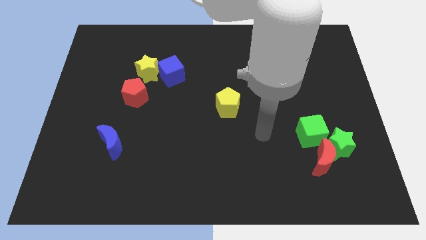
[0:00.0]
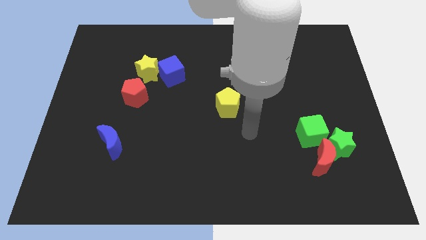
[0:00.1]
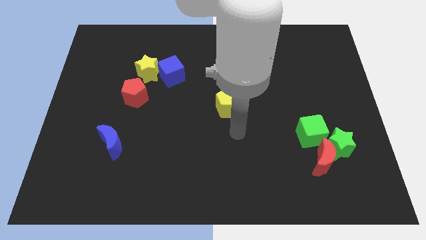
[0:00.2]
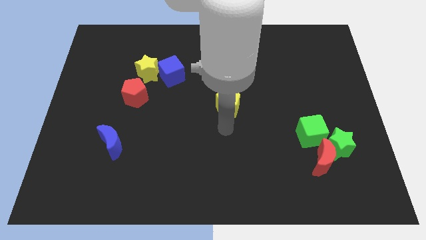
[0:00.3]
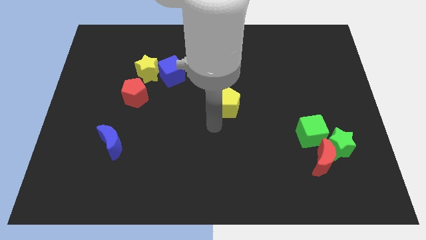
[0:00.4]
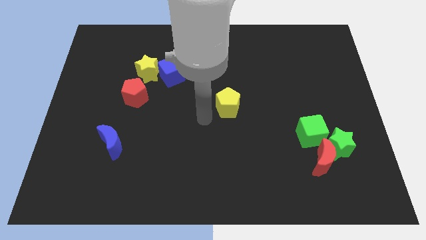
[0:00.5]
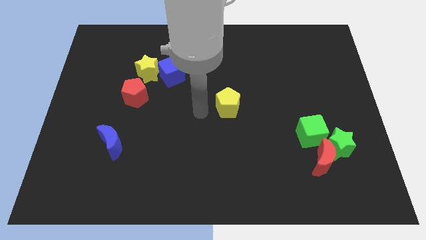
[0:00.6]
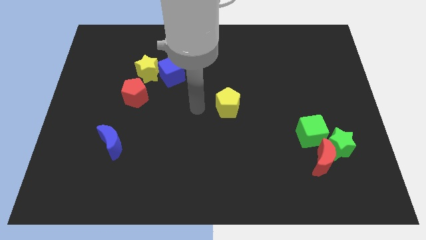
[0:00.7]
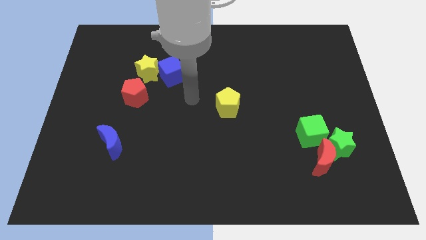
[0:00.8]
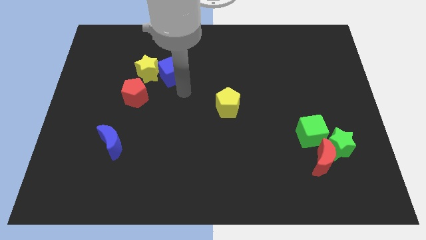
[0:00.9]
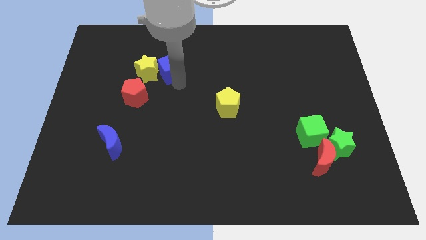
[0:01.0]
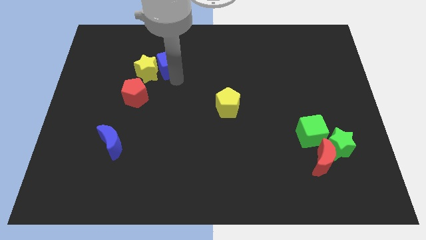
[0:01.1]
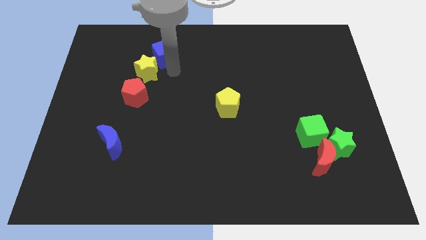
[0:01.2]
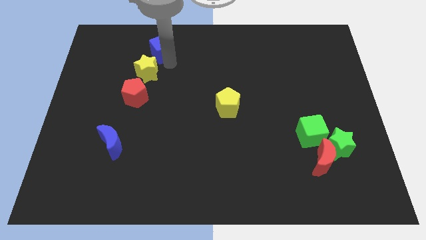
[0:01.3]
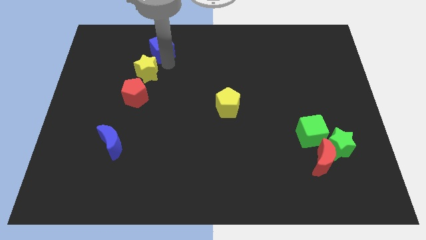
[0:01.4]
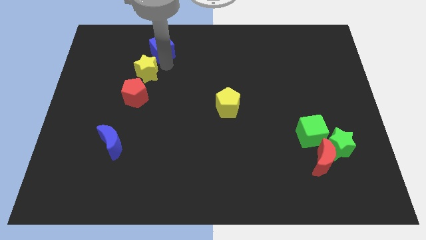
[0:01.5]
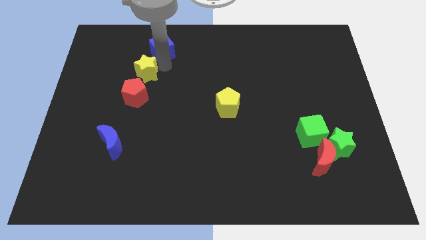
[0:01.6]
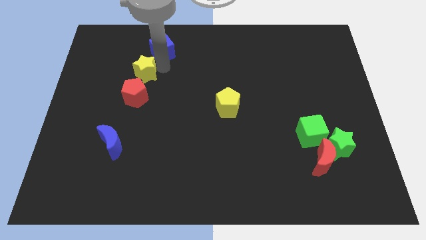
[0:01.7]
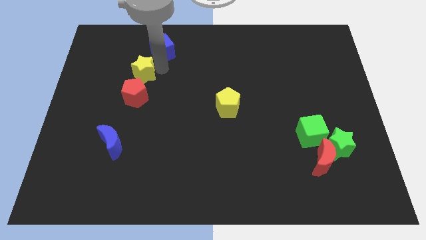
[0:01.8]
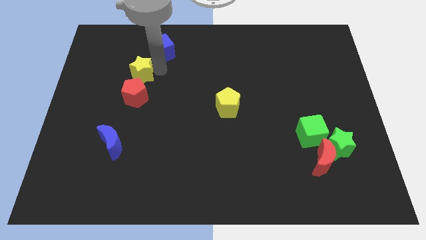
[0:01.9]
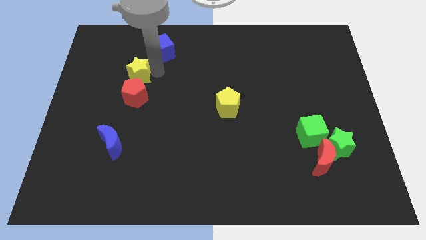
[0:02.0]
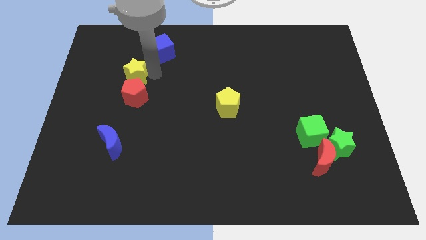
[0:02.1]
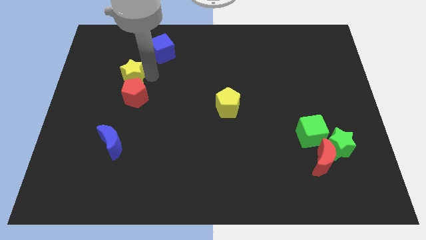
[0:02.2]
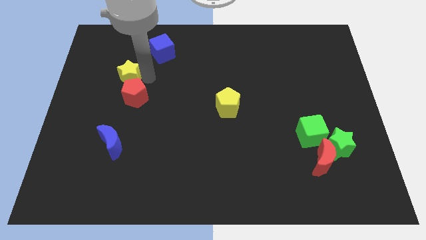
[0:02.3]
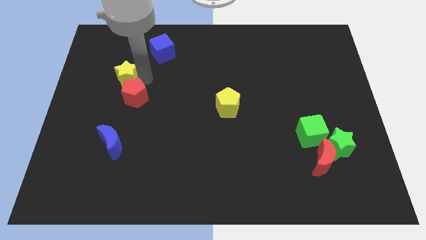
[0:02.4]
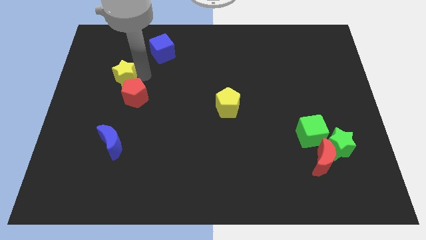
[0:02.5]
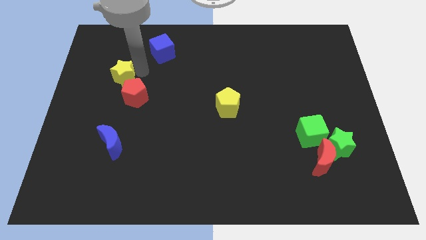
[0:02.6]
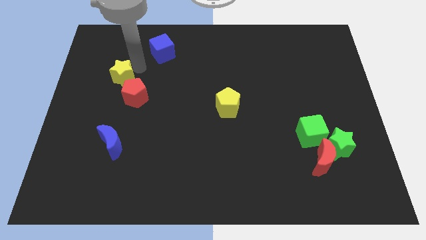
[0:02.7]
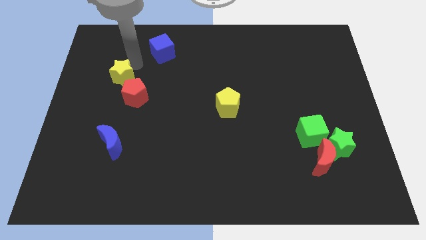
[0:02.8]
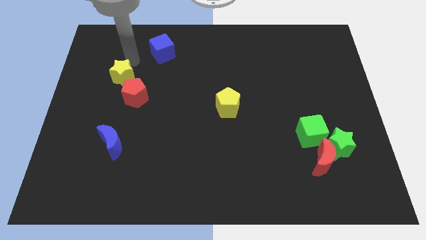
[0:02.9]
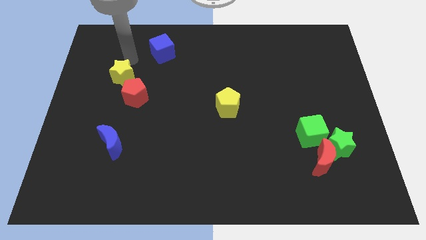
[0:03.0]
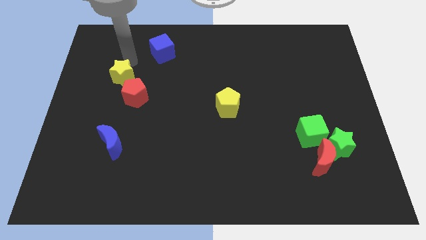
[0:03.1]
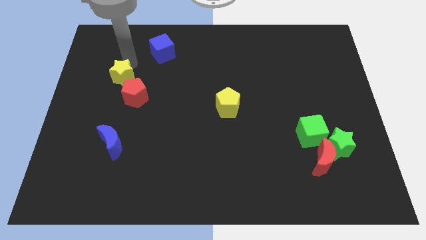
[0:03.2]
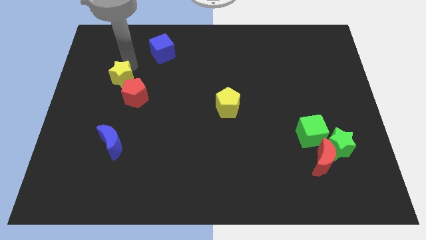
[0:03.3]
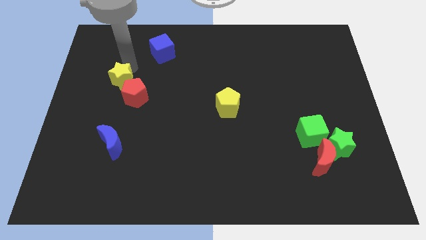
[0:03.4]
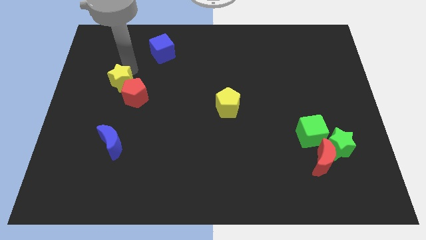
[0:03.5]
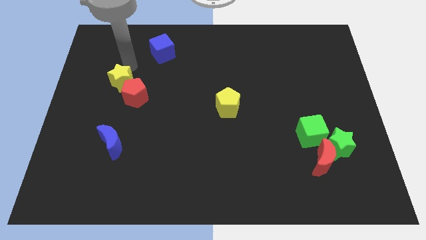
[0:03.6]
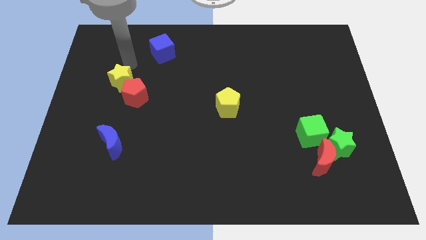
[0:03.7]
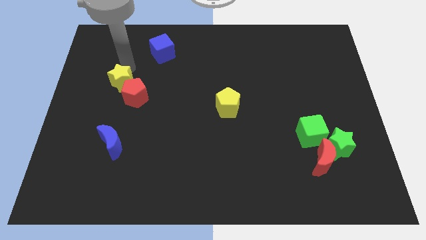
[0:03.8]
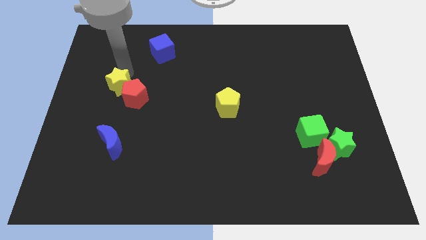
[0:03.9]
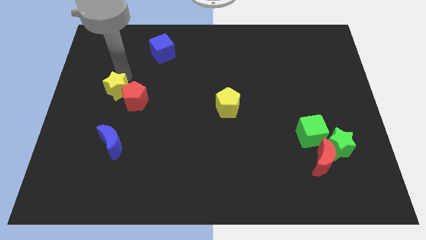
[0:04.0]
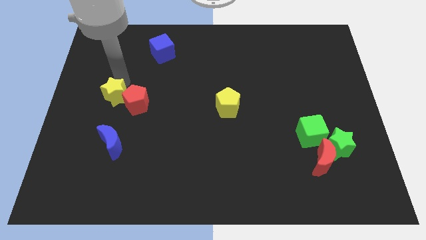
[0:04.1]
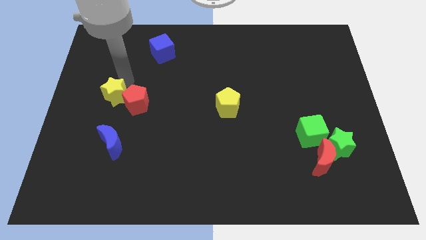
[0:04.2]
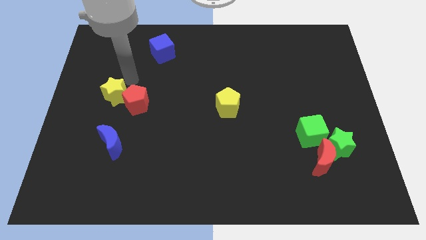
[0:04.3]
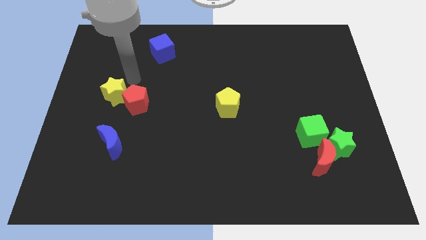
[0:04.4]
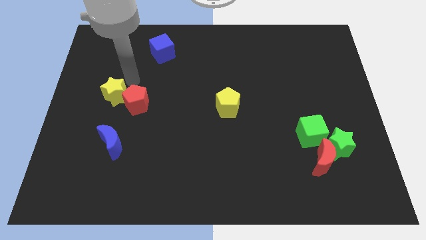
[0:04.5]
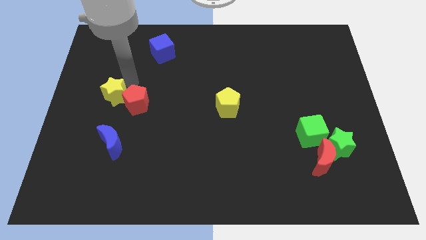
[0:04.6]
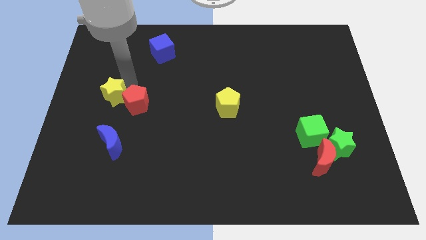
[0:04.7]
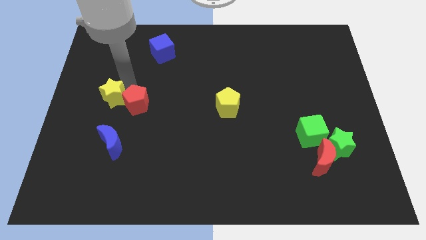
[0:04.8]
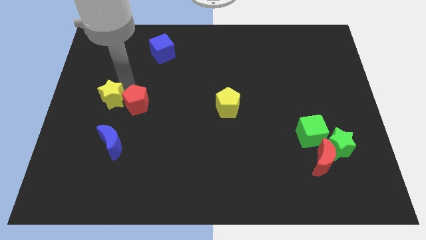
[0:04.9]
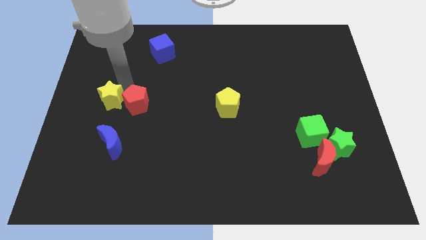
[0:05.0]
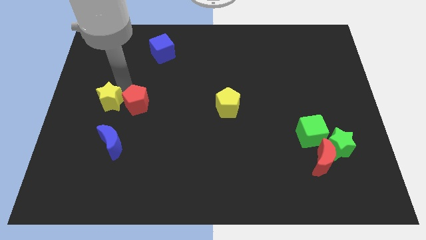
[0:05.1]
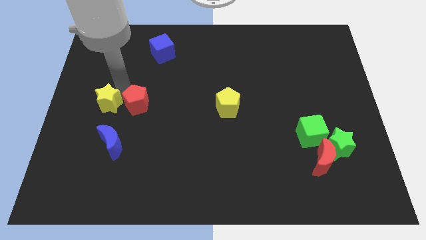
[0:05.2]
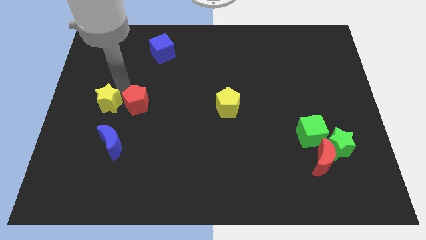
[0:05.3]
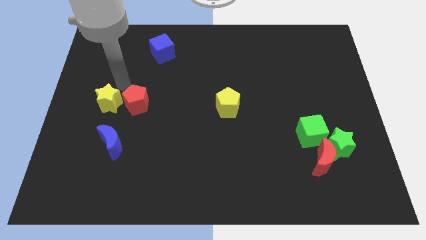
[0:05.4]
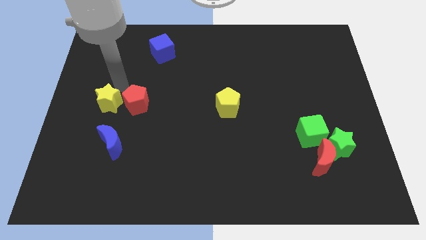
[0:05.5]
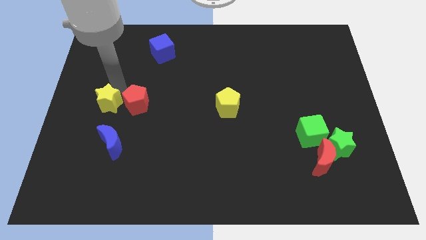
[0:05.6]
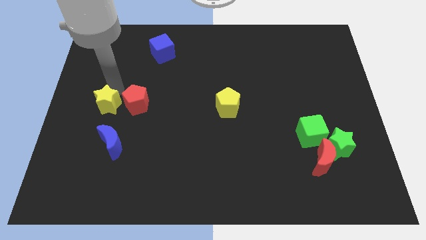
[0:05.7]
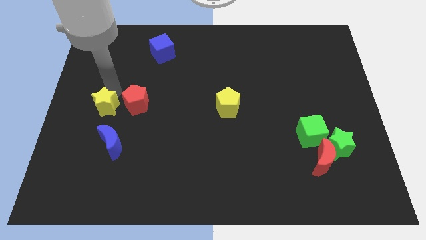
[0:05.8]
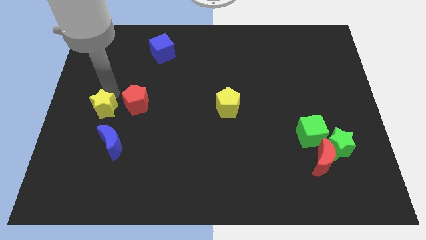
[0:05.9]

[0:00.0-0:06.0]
move the yellow star to the top left of the blue moon

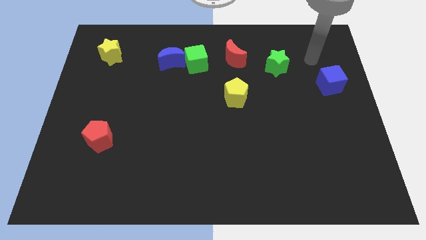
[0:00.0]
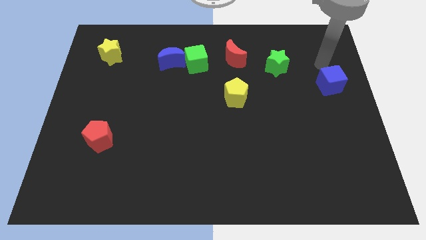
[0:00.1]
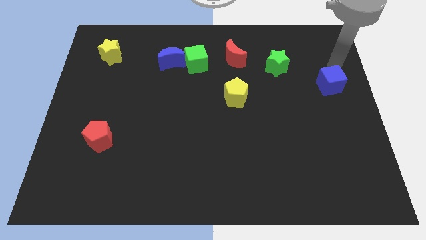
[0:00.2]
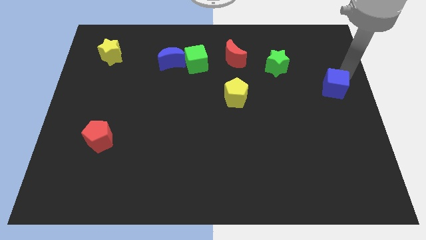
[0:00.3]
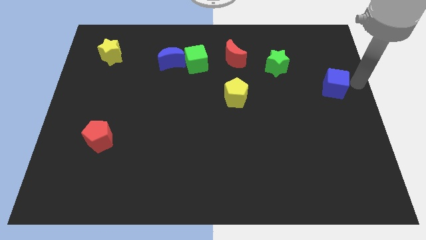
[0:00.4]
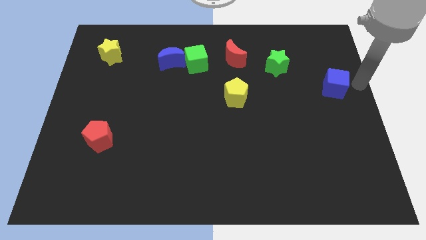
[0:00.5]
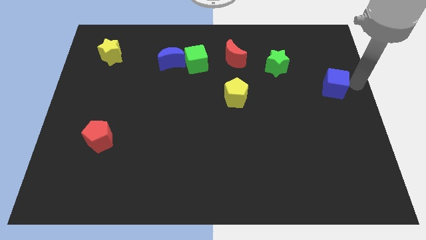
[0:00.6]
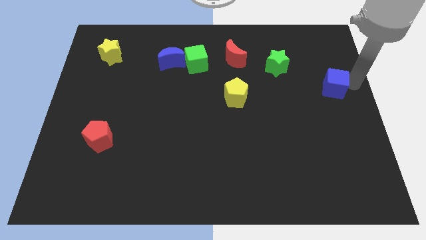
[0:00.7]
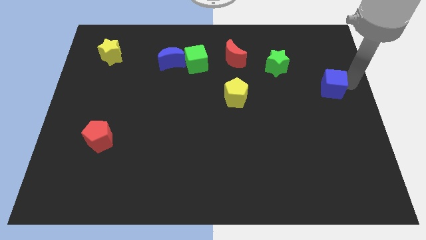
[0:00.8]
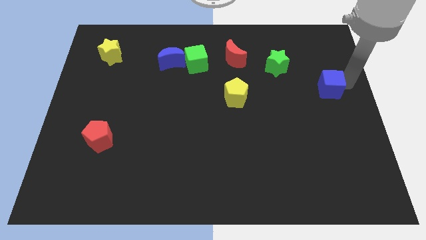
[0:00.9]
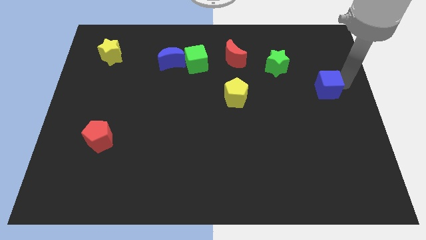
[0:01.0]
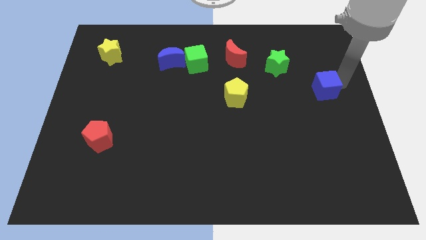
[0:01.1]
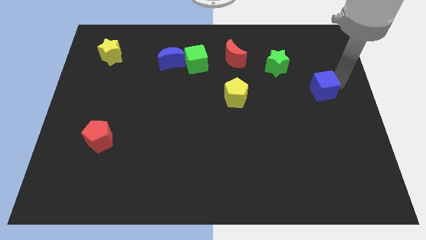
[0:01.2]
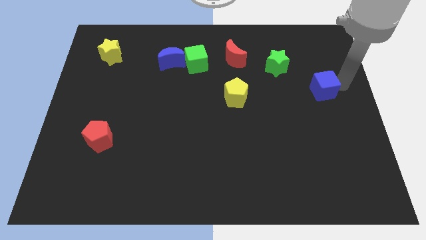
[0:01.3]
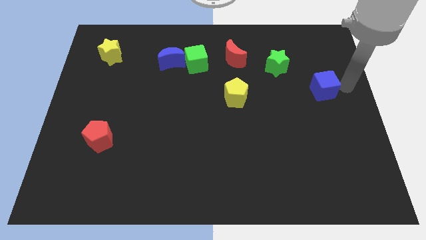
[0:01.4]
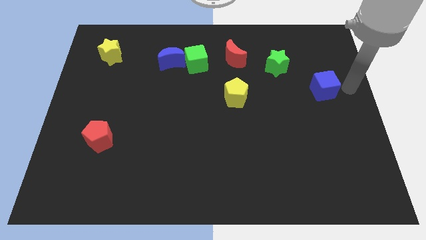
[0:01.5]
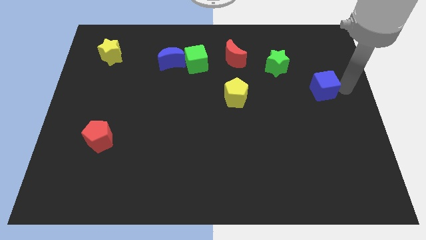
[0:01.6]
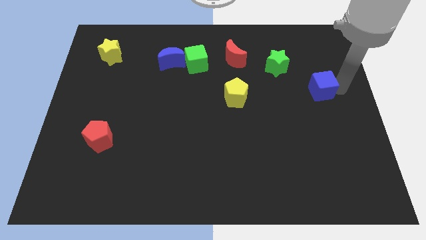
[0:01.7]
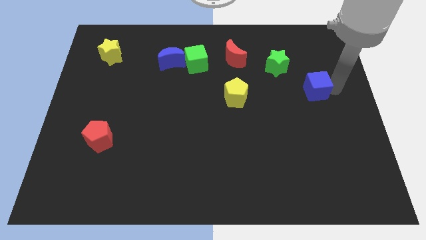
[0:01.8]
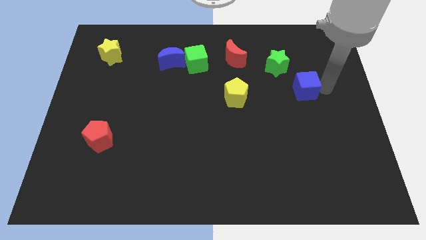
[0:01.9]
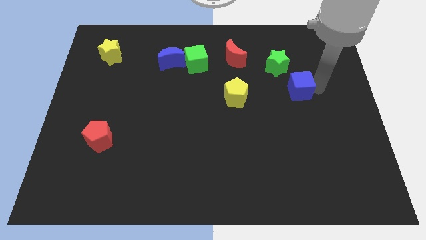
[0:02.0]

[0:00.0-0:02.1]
push the blue cube below the green star
